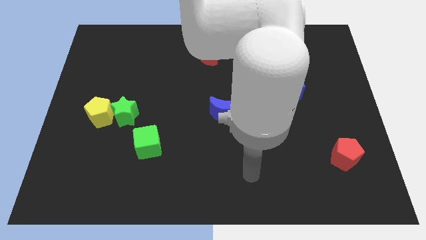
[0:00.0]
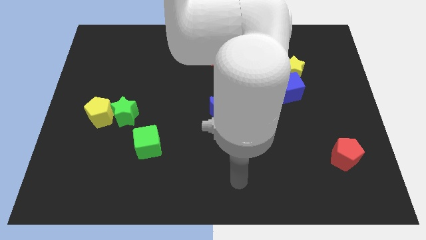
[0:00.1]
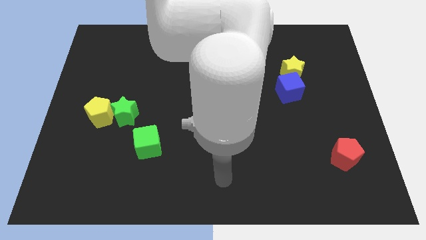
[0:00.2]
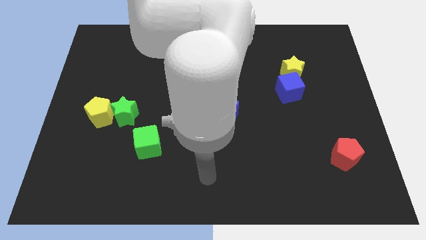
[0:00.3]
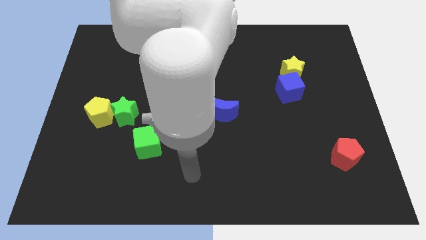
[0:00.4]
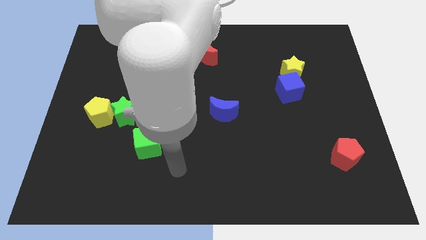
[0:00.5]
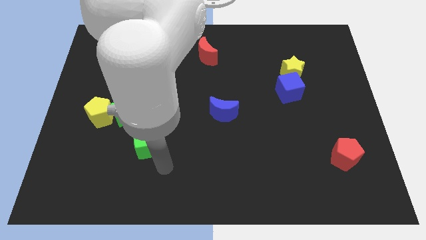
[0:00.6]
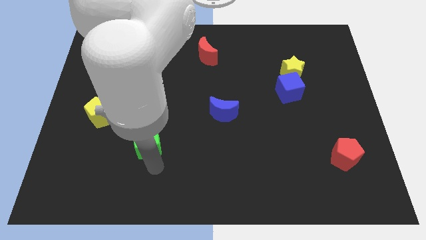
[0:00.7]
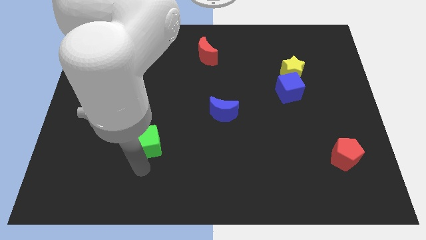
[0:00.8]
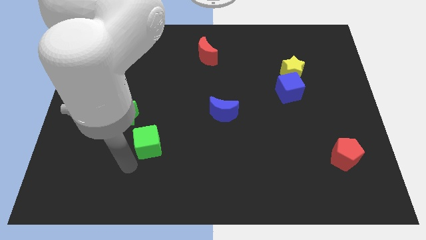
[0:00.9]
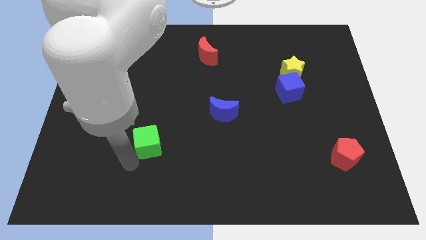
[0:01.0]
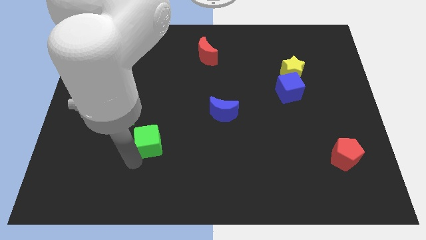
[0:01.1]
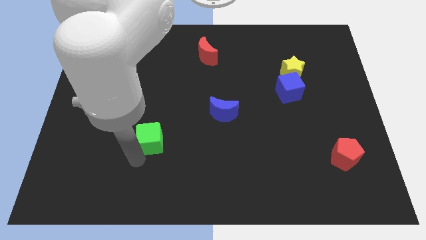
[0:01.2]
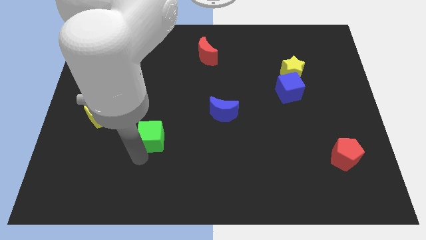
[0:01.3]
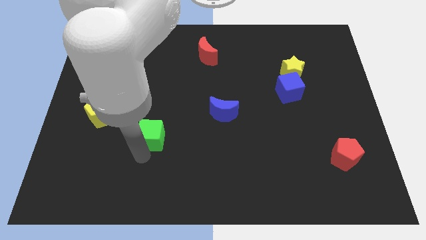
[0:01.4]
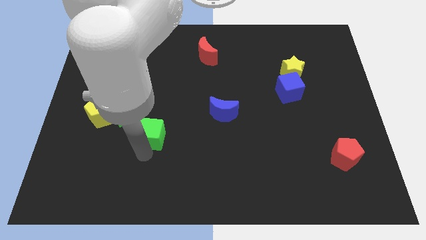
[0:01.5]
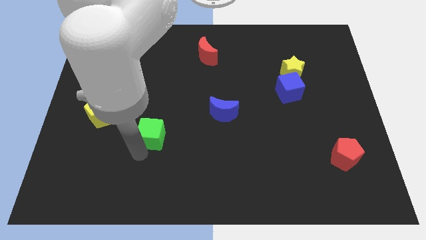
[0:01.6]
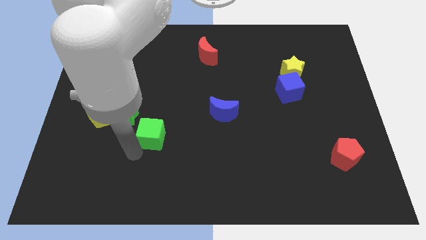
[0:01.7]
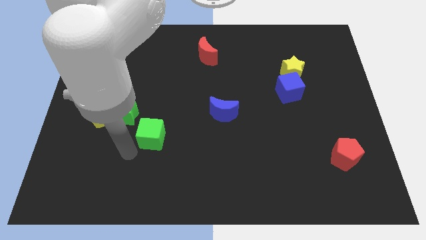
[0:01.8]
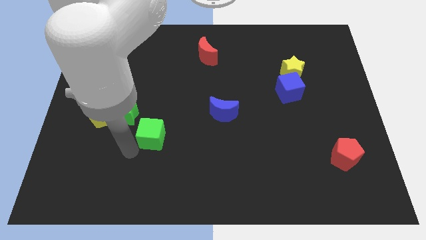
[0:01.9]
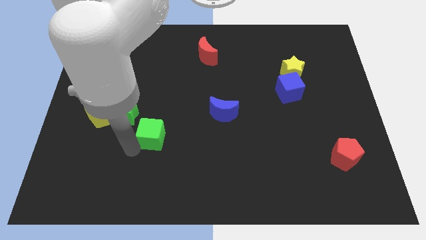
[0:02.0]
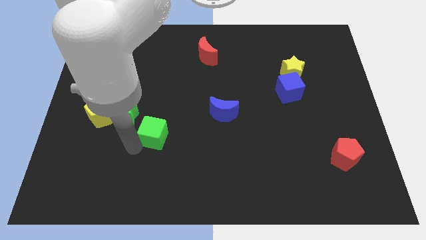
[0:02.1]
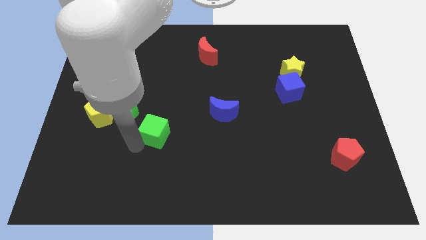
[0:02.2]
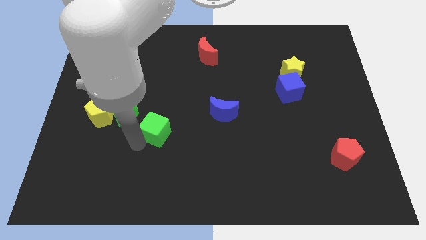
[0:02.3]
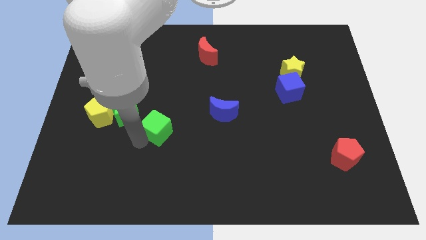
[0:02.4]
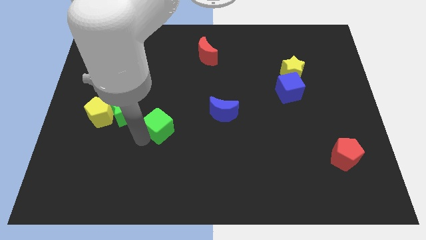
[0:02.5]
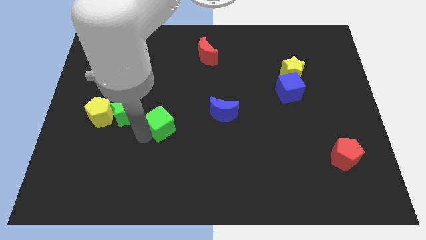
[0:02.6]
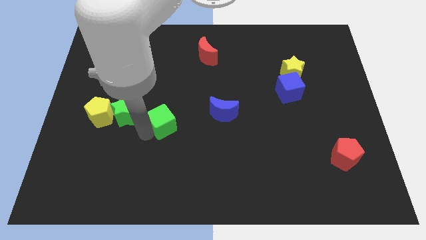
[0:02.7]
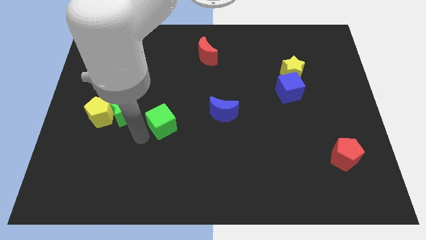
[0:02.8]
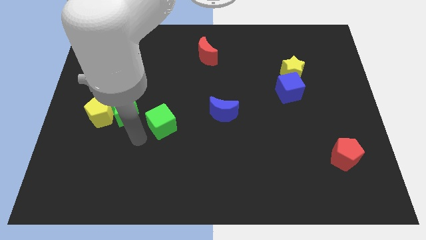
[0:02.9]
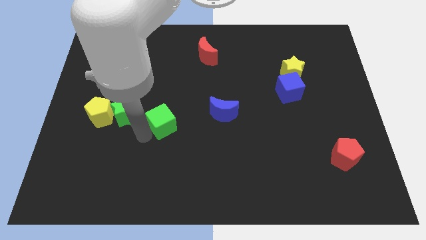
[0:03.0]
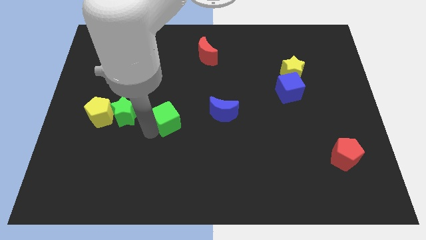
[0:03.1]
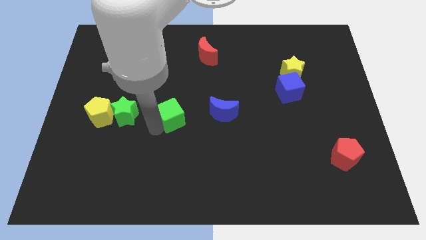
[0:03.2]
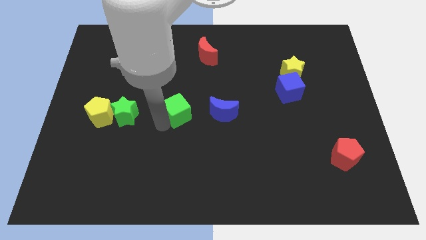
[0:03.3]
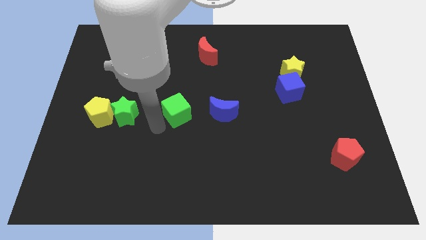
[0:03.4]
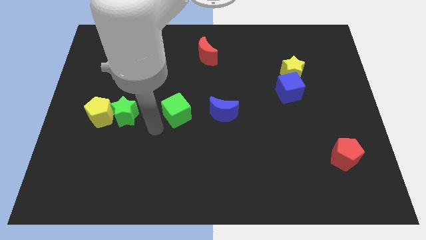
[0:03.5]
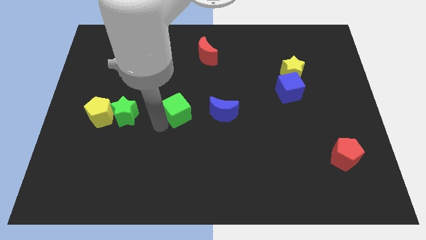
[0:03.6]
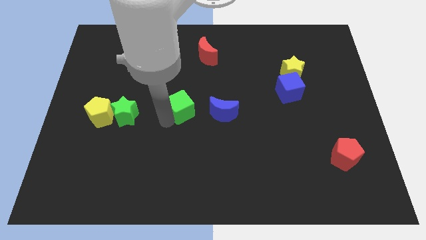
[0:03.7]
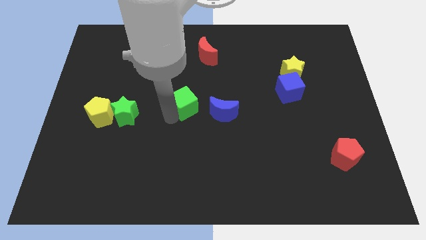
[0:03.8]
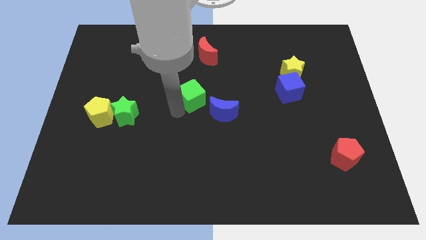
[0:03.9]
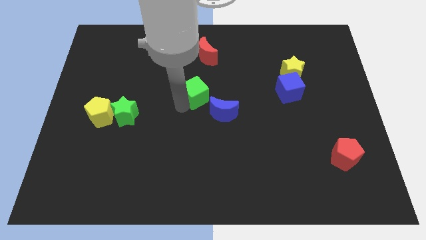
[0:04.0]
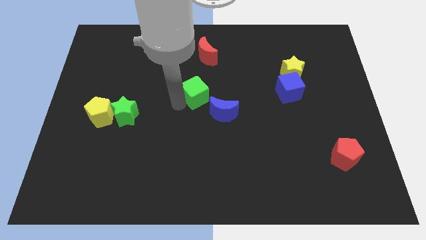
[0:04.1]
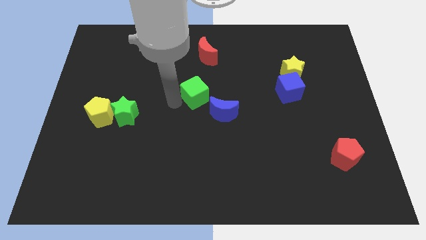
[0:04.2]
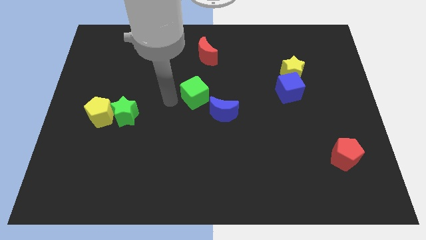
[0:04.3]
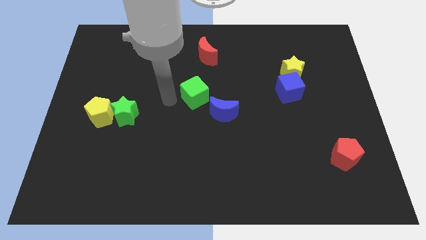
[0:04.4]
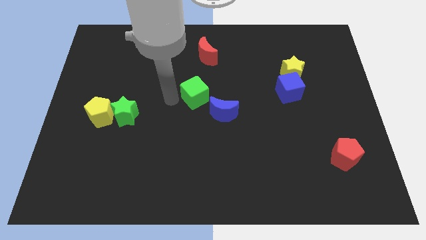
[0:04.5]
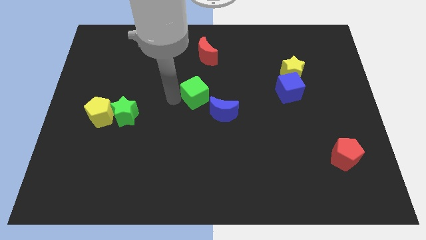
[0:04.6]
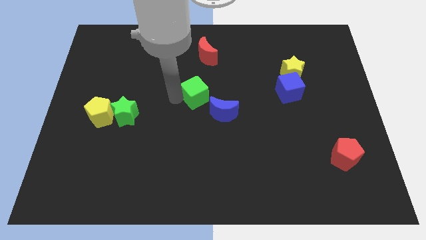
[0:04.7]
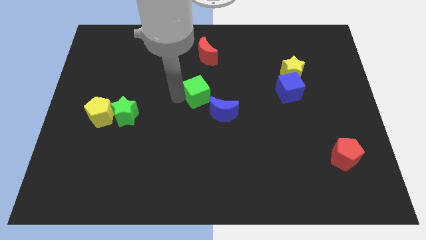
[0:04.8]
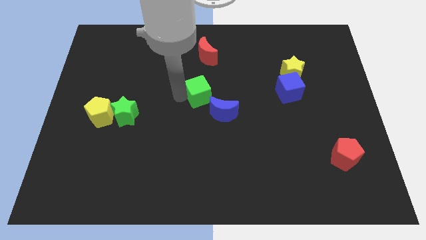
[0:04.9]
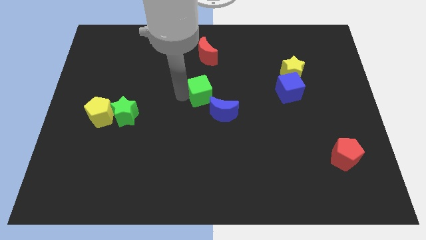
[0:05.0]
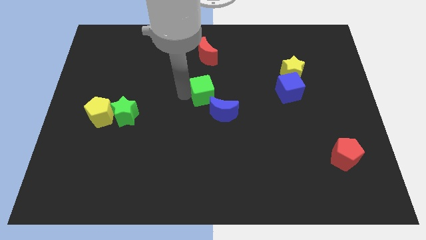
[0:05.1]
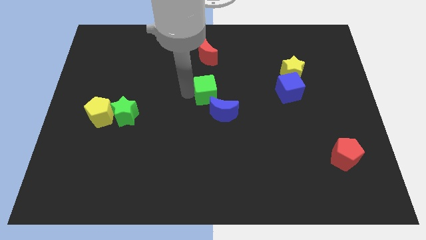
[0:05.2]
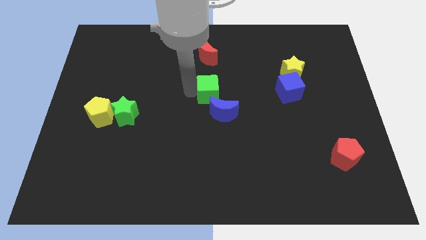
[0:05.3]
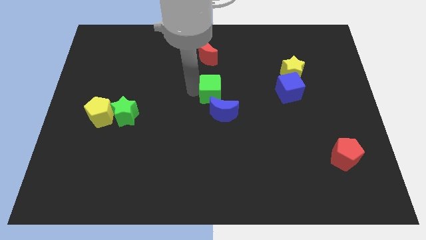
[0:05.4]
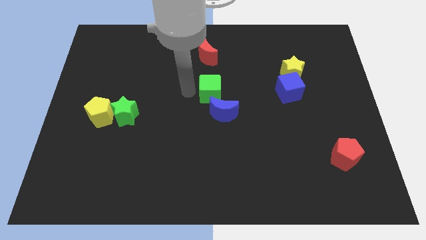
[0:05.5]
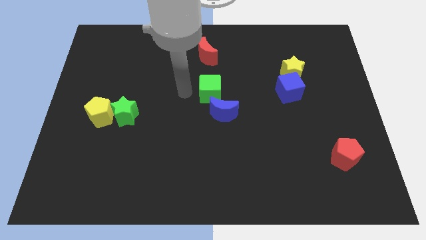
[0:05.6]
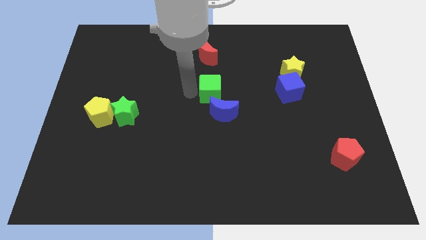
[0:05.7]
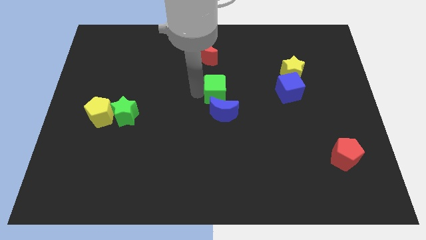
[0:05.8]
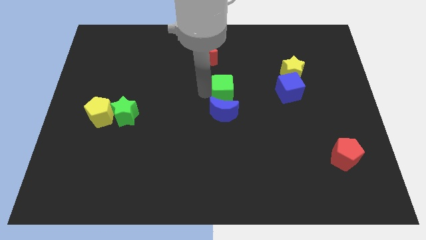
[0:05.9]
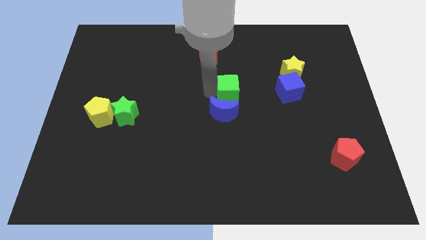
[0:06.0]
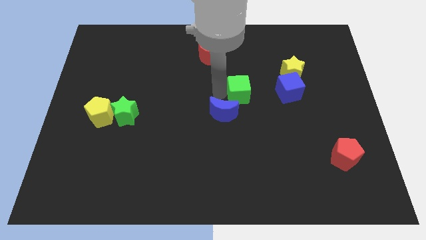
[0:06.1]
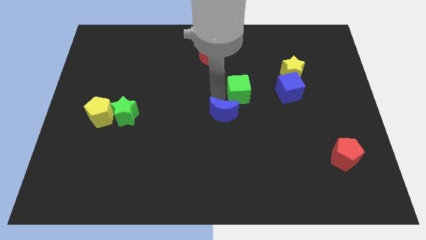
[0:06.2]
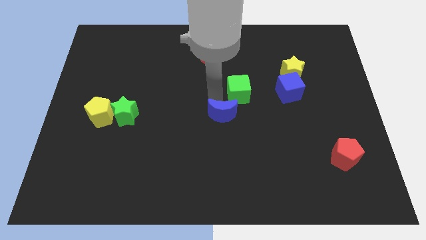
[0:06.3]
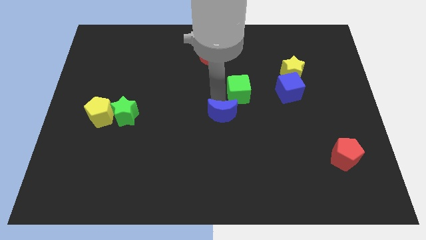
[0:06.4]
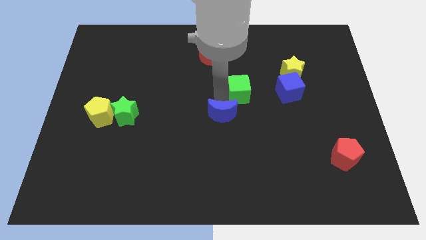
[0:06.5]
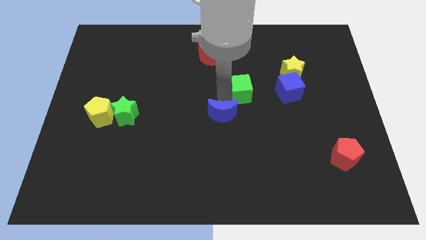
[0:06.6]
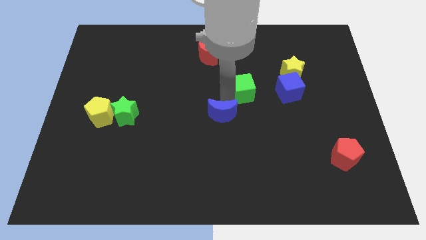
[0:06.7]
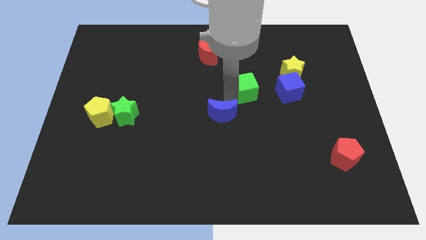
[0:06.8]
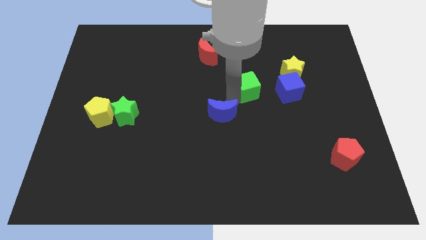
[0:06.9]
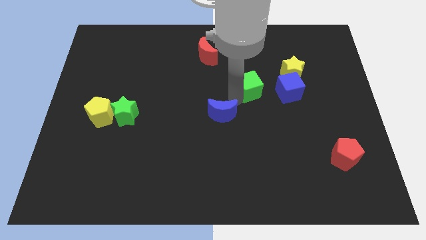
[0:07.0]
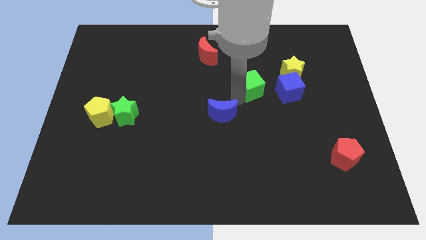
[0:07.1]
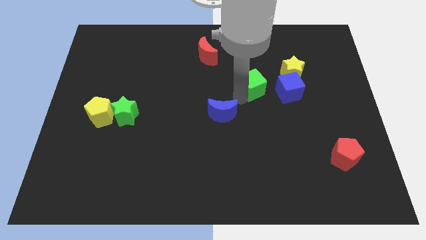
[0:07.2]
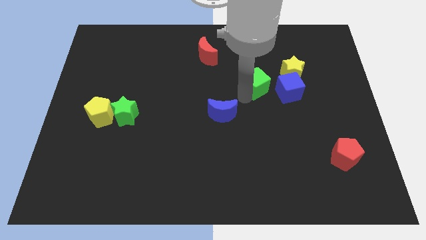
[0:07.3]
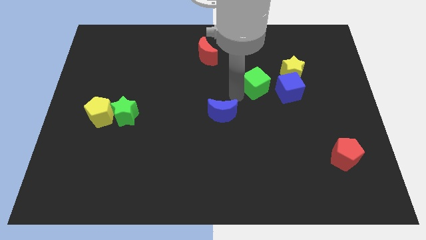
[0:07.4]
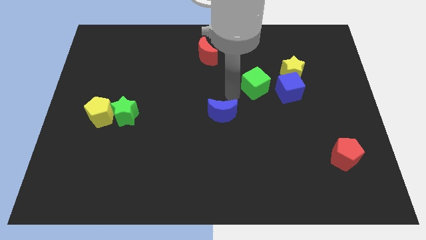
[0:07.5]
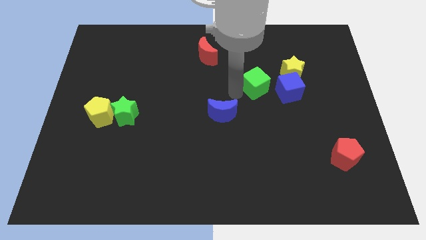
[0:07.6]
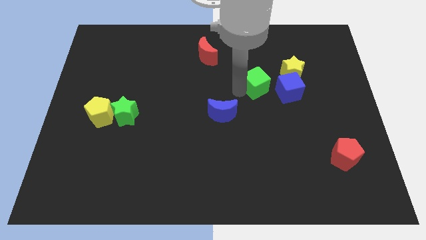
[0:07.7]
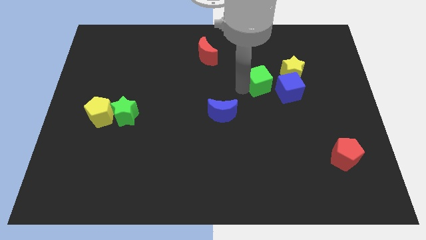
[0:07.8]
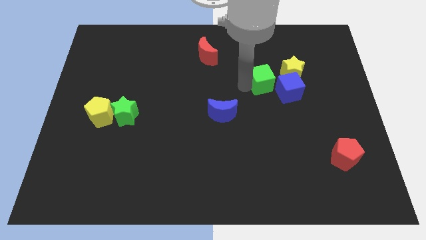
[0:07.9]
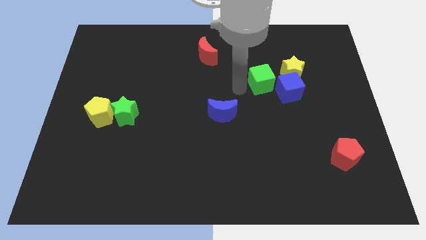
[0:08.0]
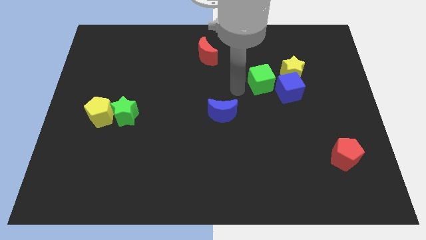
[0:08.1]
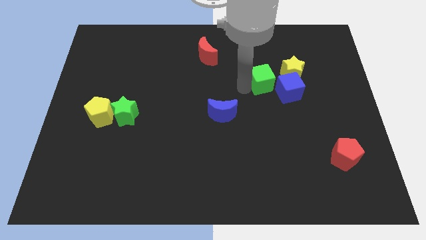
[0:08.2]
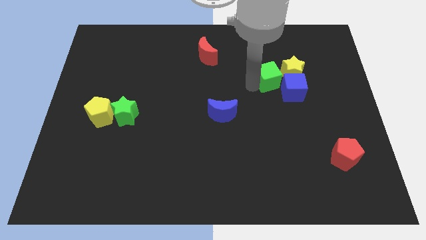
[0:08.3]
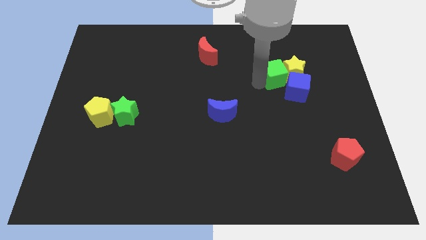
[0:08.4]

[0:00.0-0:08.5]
move the green cube to the yellow star
